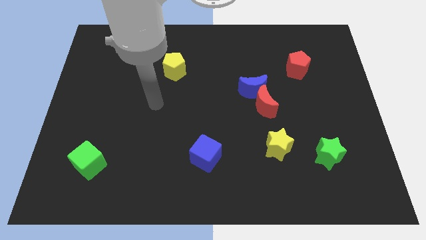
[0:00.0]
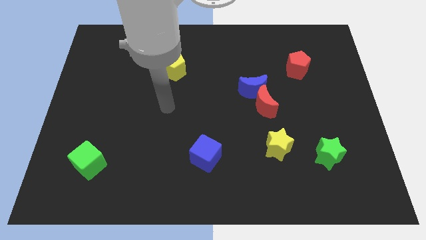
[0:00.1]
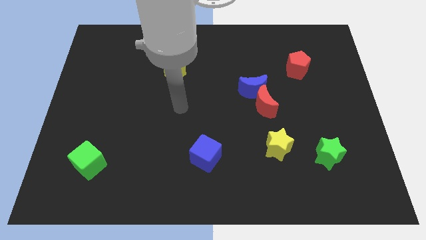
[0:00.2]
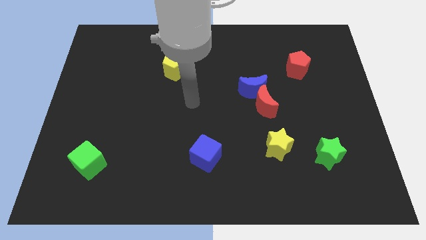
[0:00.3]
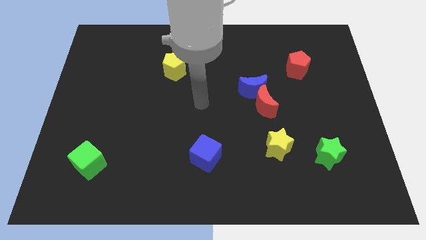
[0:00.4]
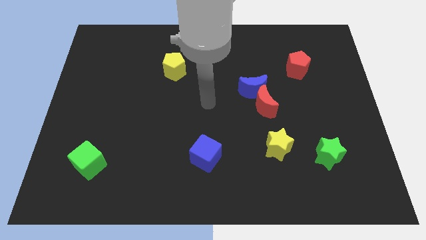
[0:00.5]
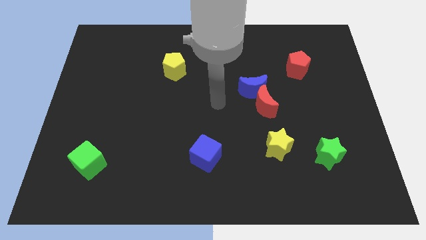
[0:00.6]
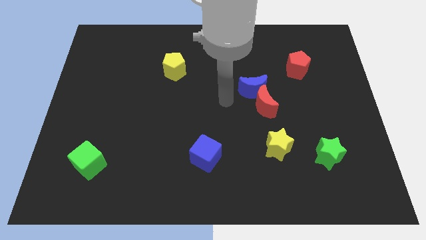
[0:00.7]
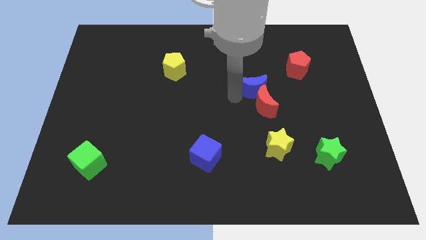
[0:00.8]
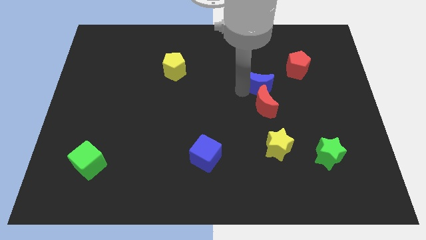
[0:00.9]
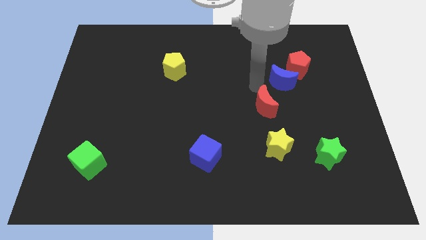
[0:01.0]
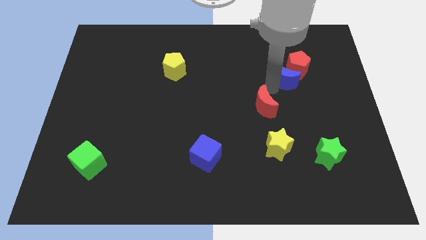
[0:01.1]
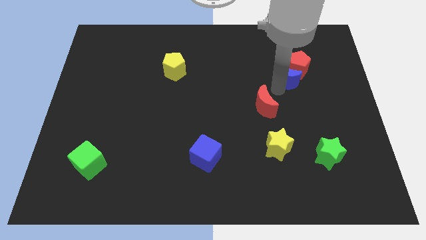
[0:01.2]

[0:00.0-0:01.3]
pull the red moon apart from the blue moon

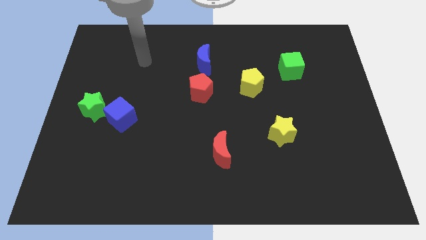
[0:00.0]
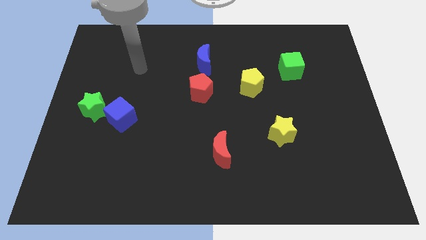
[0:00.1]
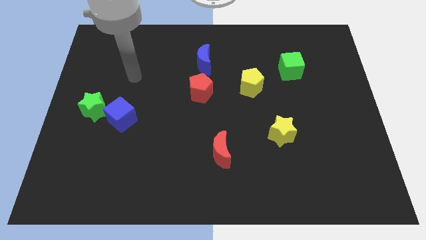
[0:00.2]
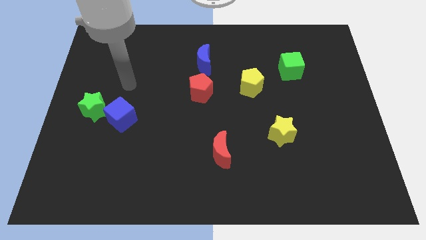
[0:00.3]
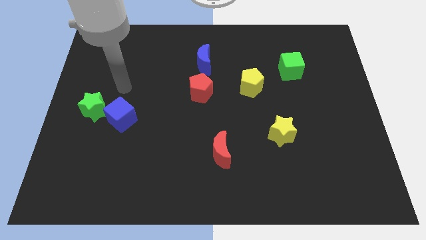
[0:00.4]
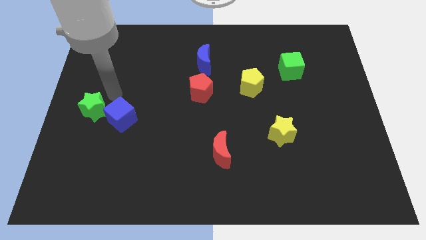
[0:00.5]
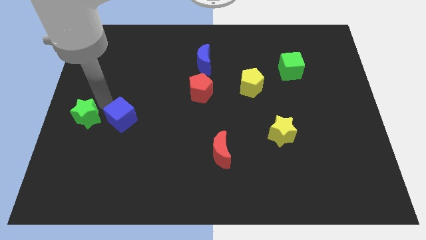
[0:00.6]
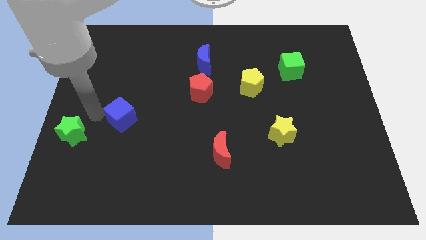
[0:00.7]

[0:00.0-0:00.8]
move the blue cube away from the green star

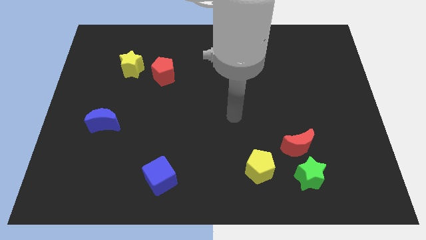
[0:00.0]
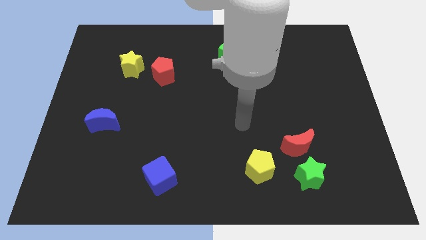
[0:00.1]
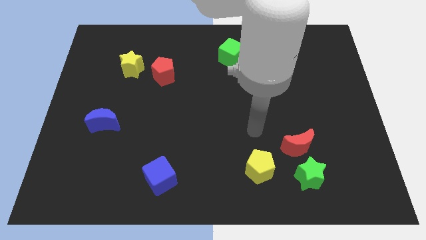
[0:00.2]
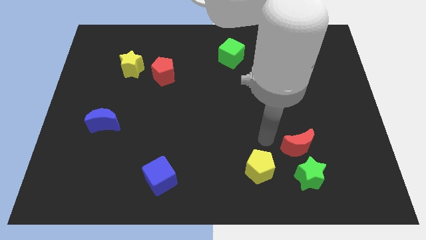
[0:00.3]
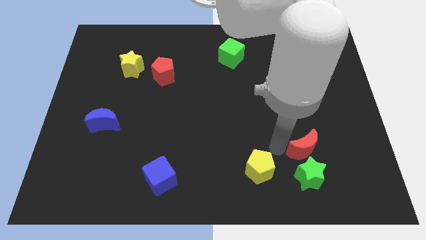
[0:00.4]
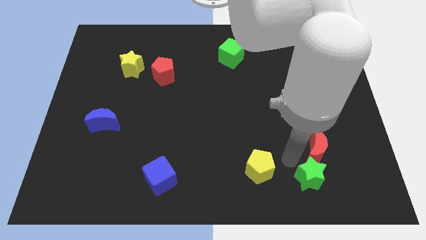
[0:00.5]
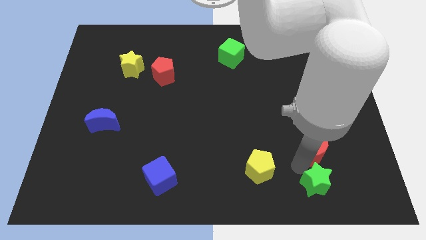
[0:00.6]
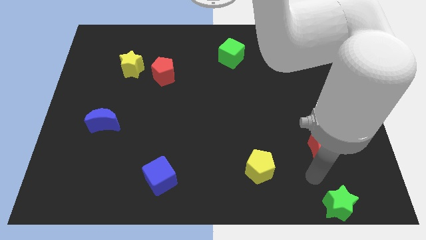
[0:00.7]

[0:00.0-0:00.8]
separate the red moon from the green star

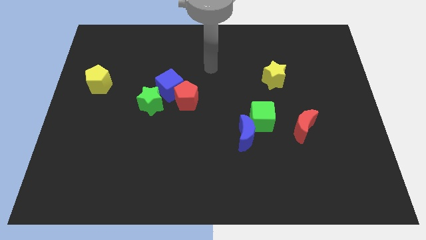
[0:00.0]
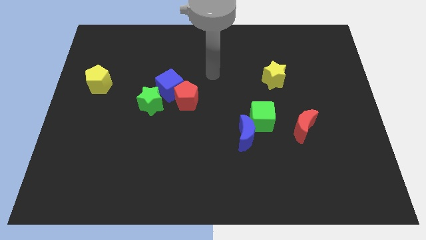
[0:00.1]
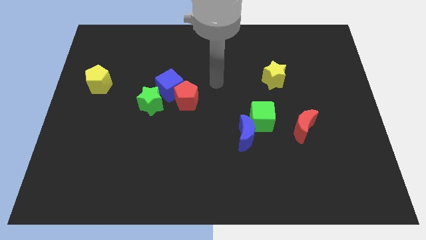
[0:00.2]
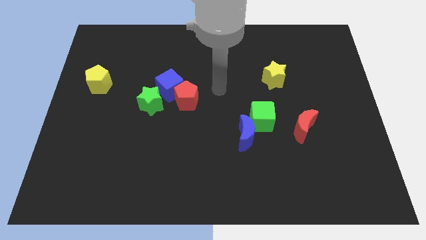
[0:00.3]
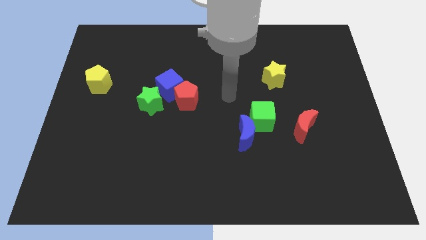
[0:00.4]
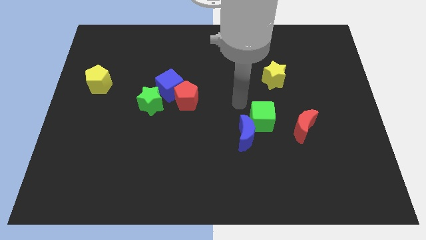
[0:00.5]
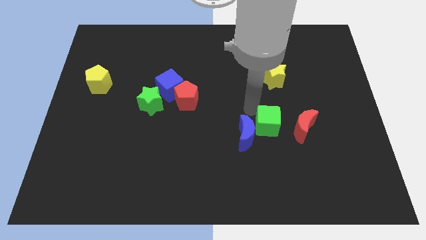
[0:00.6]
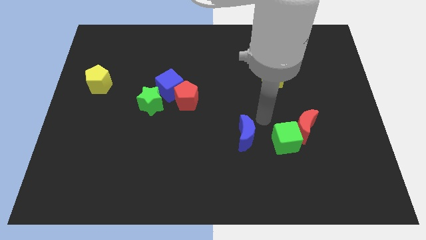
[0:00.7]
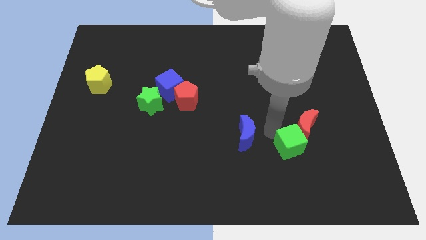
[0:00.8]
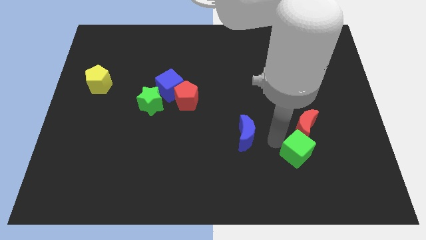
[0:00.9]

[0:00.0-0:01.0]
pull the blue moon apart from the green cube

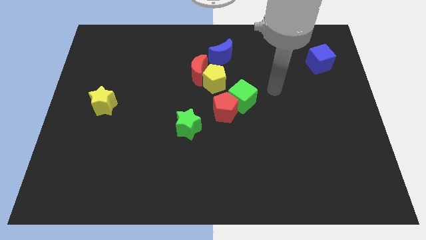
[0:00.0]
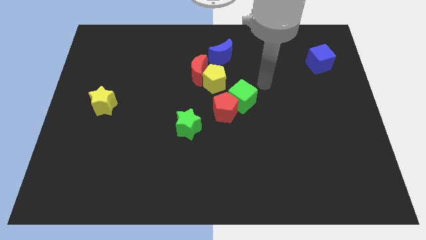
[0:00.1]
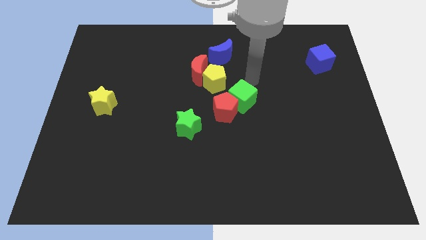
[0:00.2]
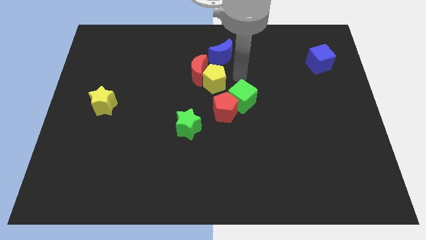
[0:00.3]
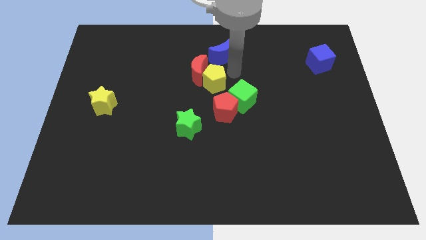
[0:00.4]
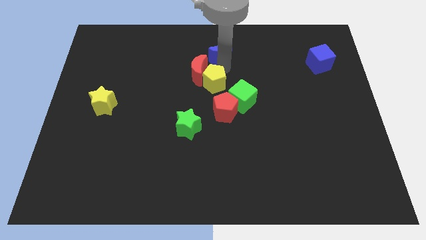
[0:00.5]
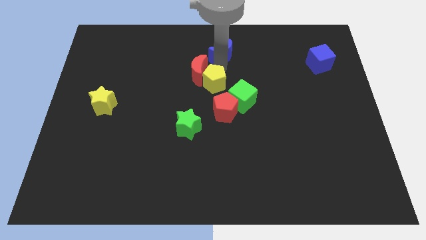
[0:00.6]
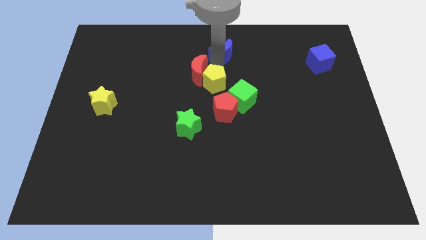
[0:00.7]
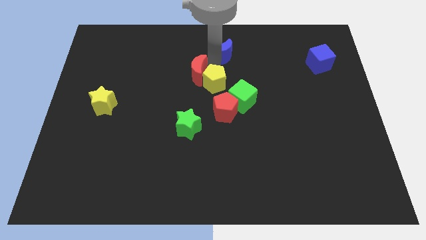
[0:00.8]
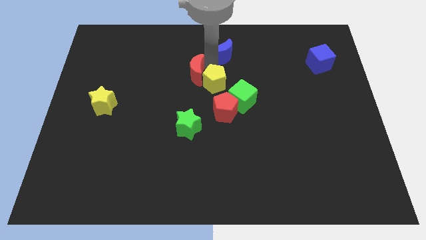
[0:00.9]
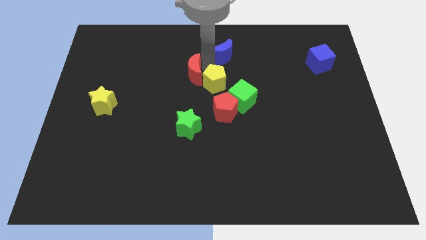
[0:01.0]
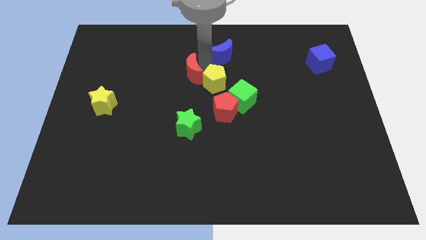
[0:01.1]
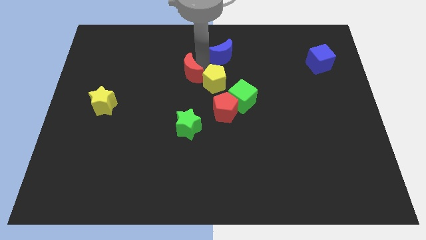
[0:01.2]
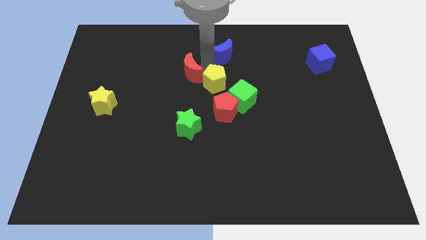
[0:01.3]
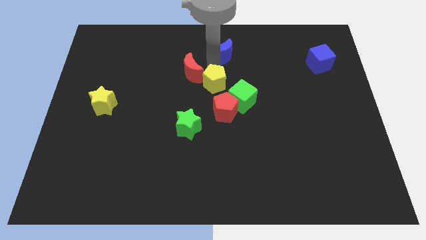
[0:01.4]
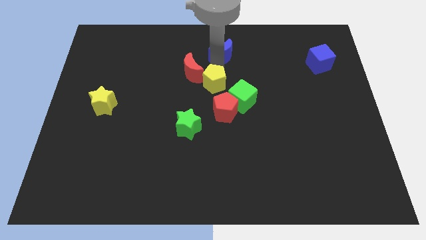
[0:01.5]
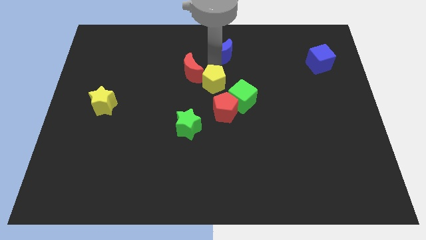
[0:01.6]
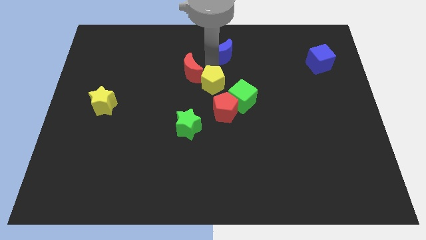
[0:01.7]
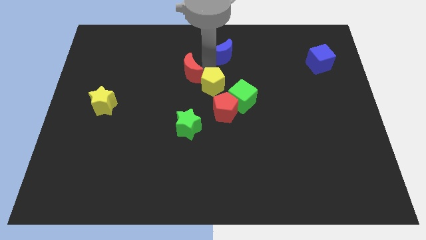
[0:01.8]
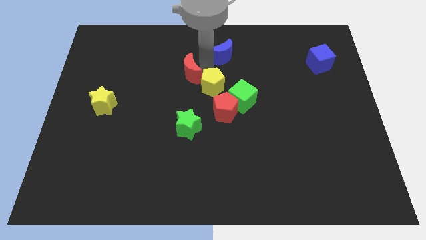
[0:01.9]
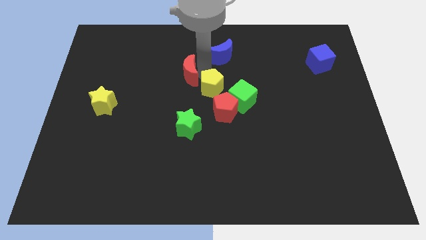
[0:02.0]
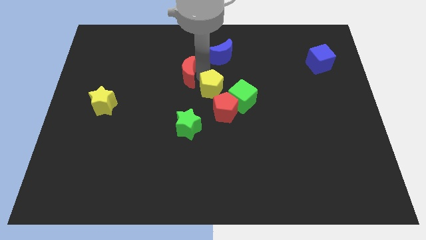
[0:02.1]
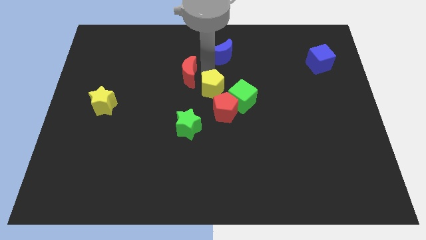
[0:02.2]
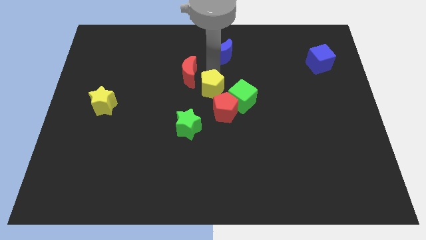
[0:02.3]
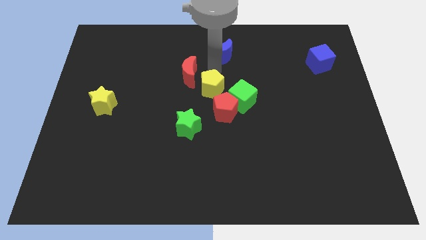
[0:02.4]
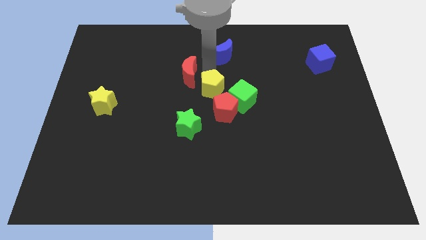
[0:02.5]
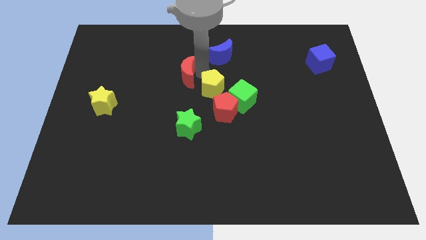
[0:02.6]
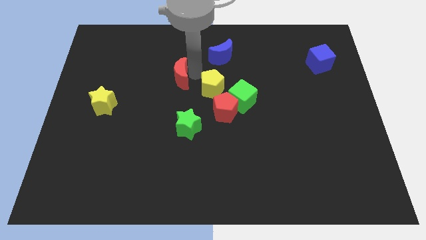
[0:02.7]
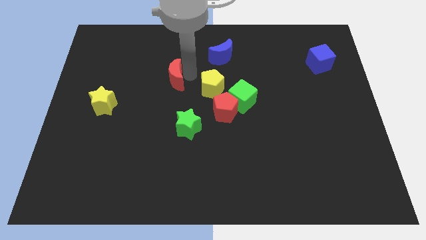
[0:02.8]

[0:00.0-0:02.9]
separate the red moon from the yellow pentagon and blue moon

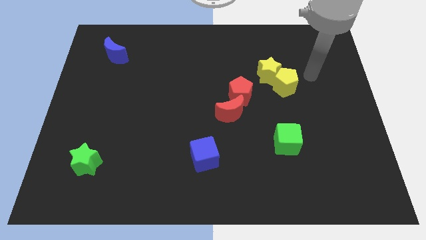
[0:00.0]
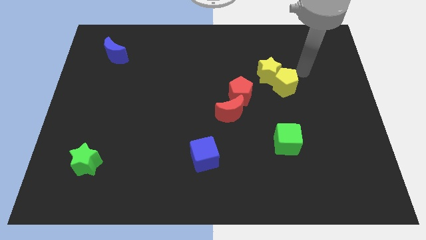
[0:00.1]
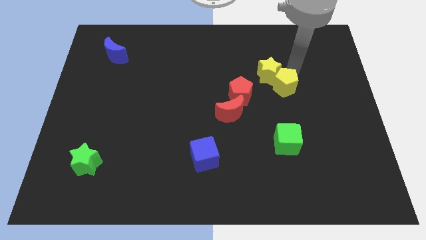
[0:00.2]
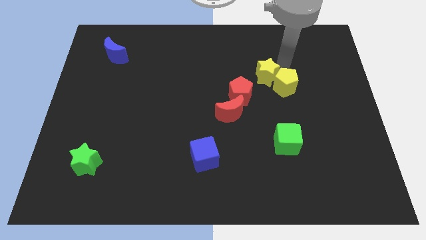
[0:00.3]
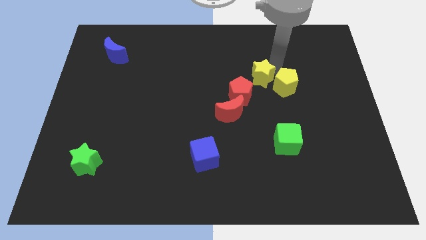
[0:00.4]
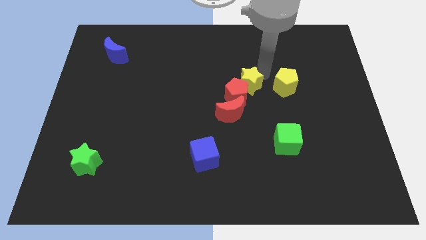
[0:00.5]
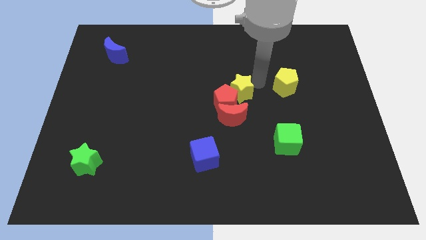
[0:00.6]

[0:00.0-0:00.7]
pull the yellow pentagon apart from the yellow star

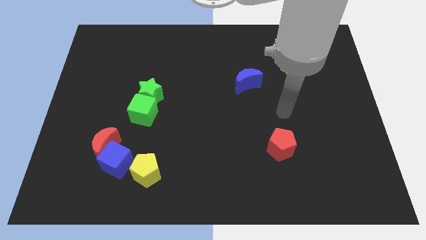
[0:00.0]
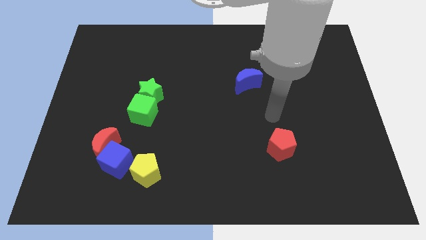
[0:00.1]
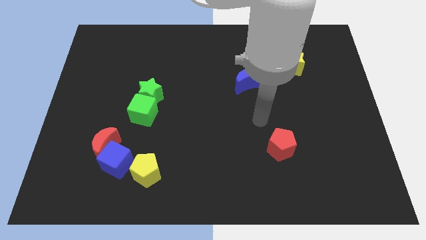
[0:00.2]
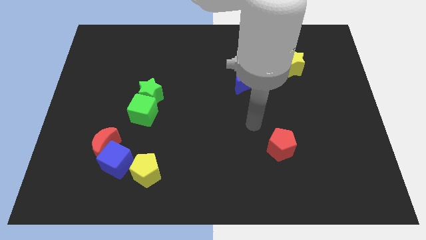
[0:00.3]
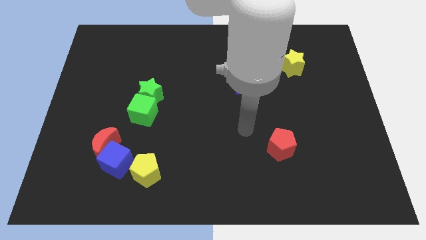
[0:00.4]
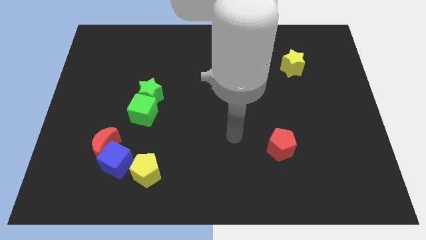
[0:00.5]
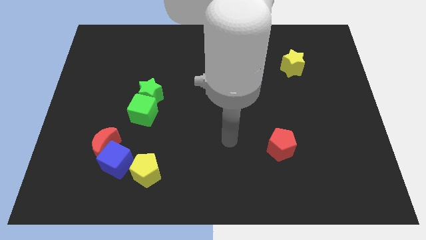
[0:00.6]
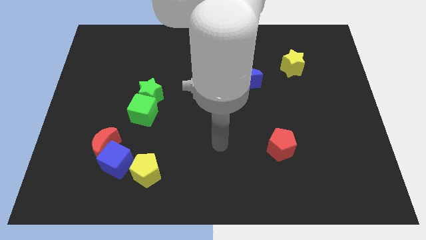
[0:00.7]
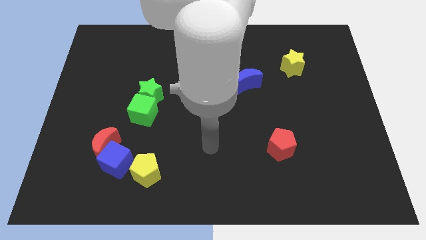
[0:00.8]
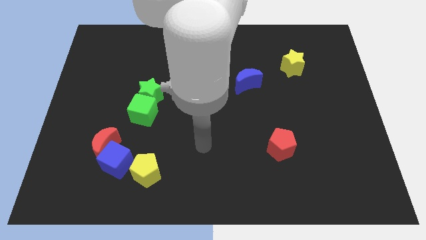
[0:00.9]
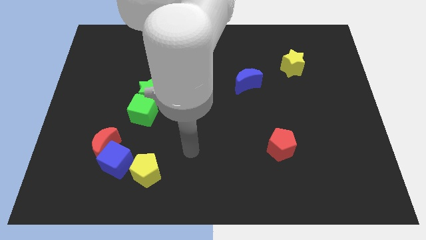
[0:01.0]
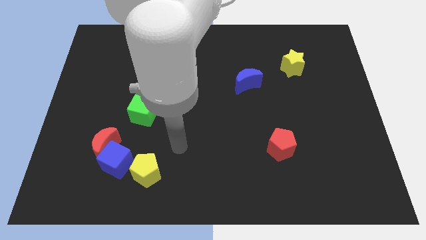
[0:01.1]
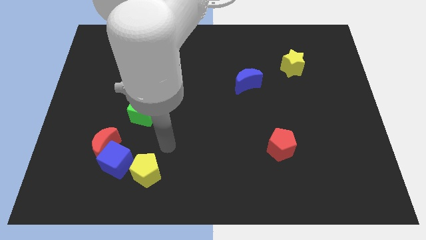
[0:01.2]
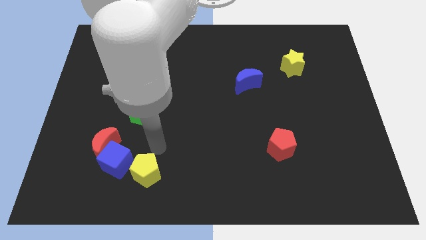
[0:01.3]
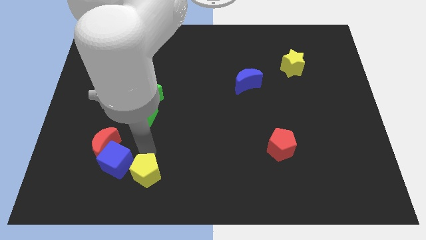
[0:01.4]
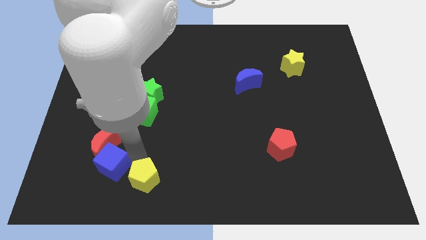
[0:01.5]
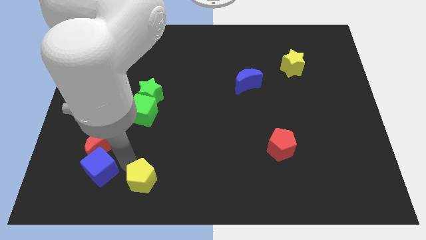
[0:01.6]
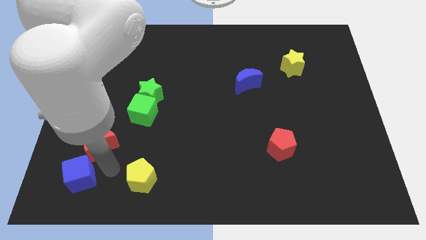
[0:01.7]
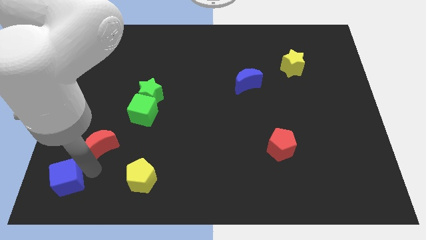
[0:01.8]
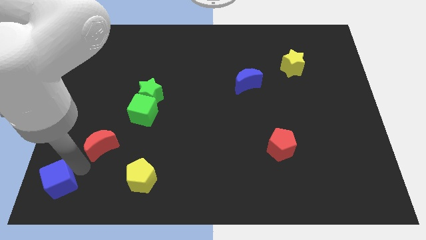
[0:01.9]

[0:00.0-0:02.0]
separate the red moon from the blue cube

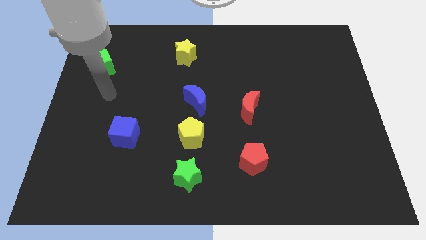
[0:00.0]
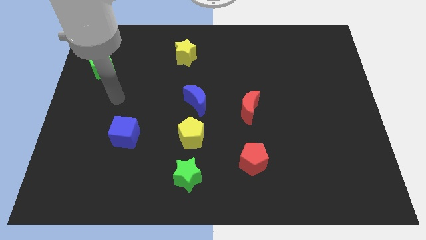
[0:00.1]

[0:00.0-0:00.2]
pull the blue moon apart from the yellow pentagon
